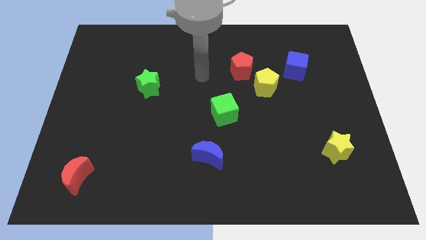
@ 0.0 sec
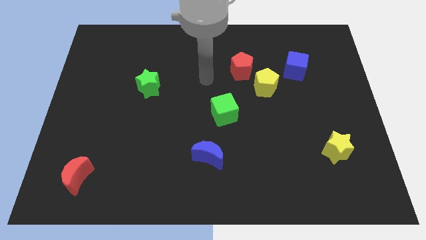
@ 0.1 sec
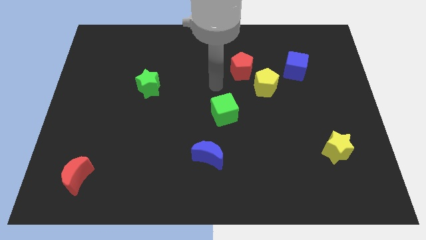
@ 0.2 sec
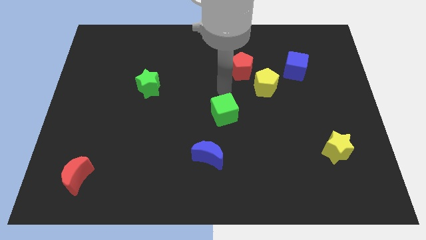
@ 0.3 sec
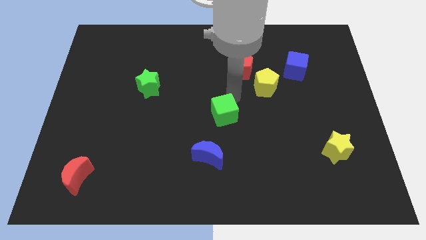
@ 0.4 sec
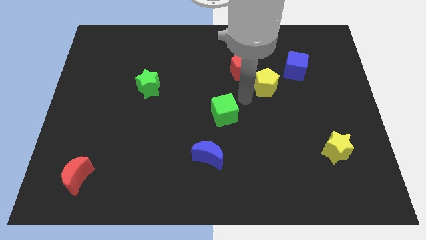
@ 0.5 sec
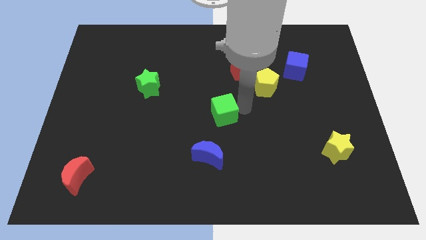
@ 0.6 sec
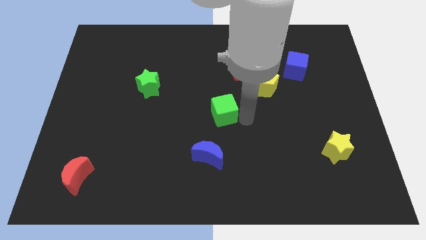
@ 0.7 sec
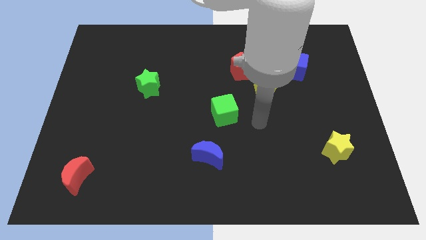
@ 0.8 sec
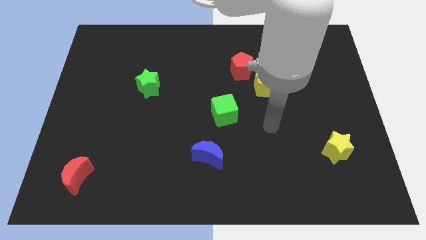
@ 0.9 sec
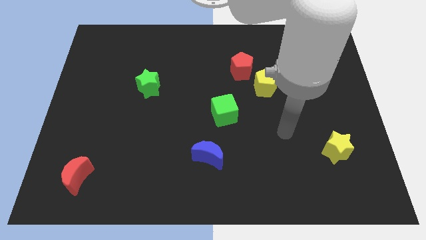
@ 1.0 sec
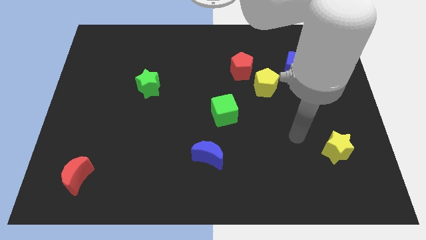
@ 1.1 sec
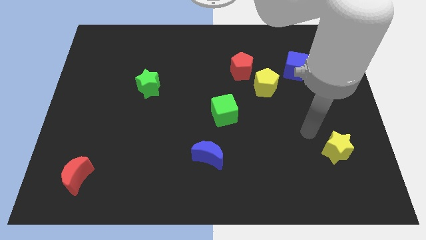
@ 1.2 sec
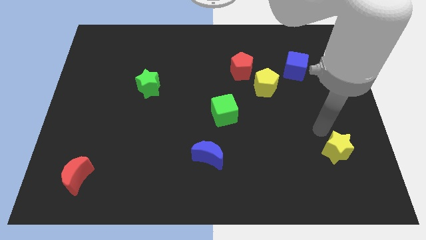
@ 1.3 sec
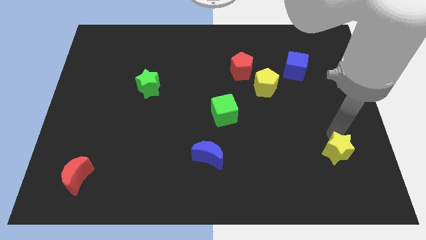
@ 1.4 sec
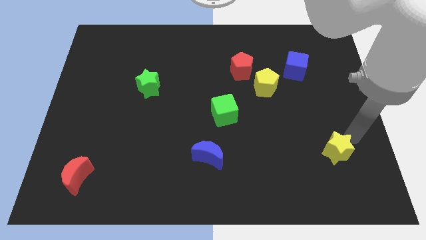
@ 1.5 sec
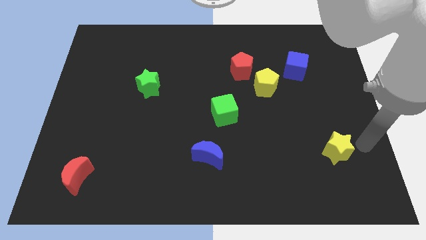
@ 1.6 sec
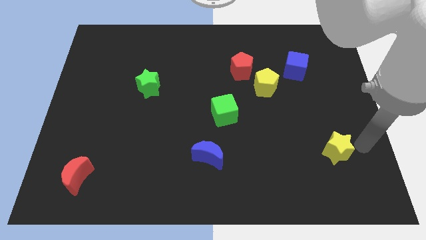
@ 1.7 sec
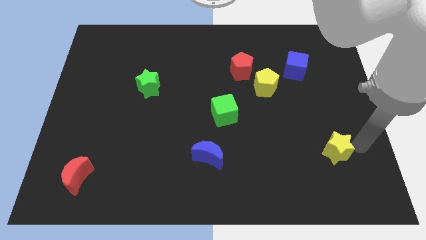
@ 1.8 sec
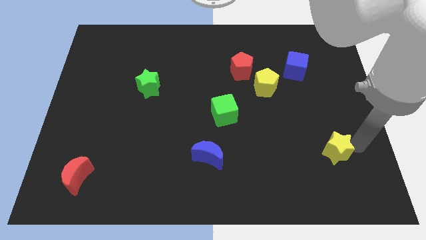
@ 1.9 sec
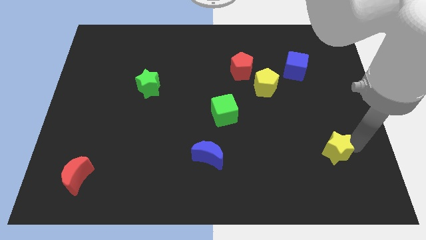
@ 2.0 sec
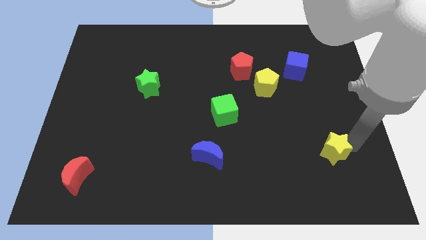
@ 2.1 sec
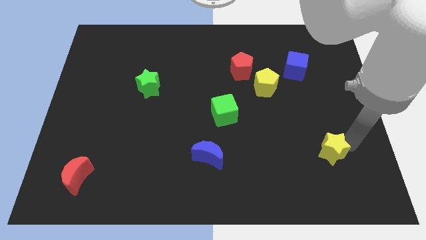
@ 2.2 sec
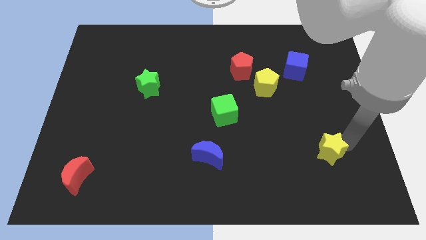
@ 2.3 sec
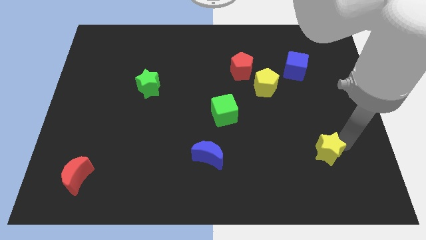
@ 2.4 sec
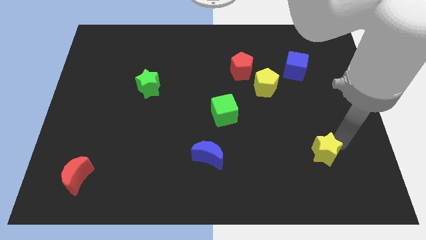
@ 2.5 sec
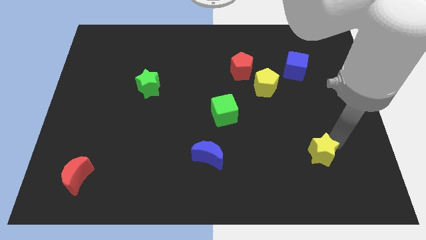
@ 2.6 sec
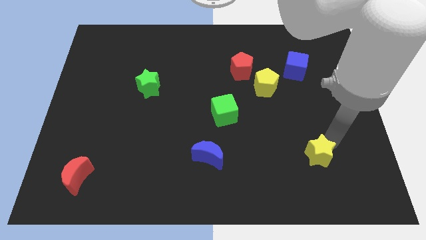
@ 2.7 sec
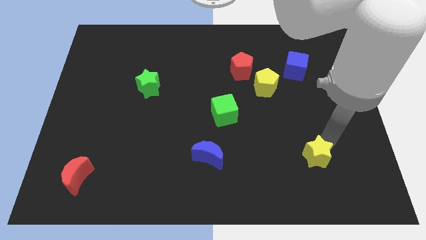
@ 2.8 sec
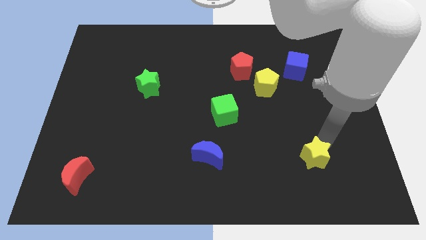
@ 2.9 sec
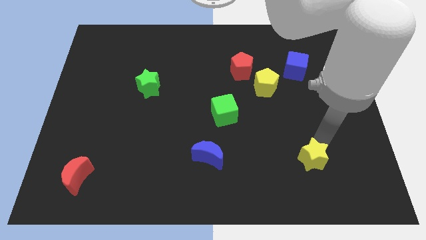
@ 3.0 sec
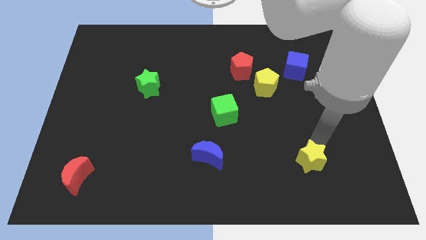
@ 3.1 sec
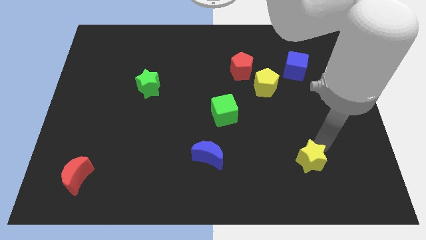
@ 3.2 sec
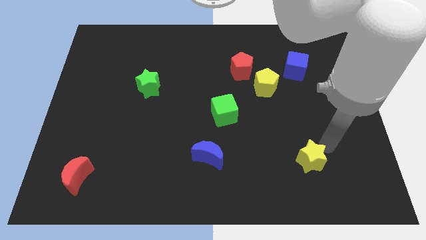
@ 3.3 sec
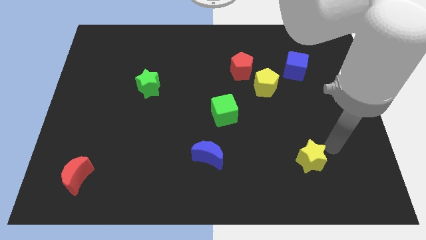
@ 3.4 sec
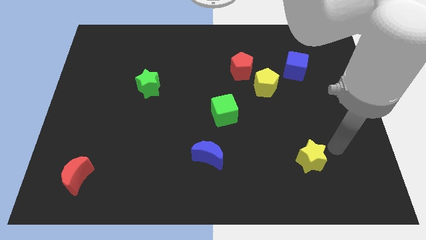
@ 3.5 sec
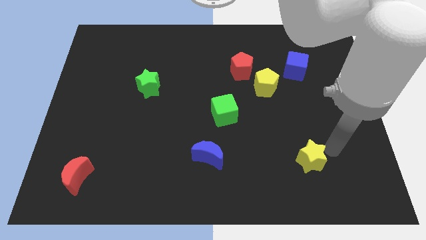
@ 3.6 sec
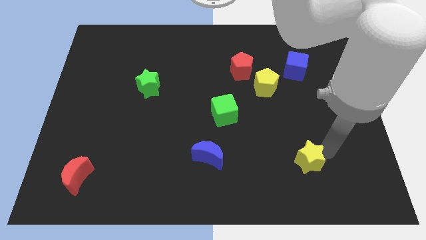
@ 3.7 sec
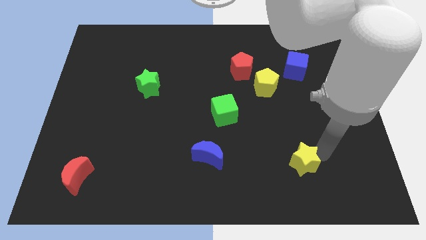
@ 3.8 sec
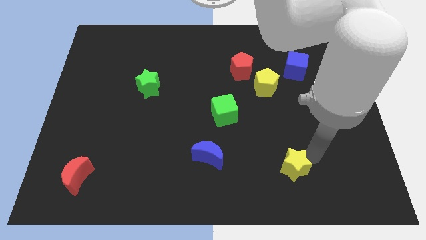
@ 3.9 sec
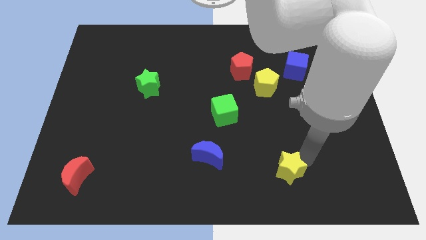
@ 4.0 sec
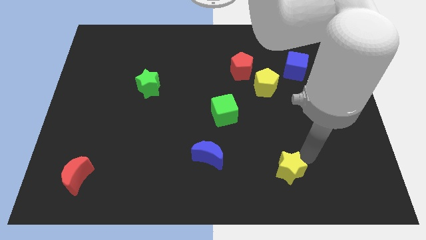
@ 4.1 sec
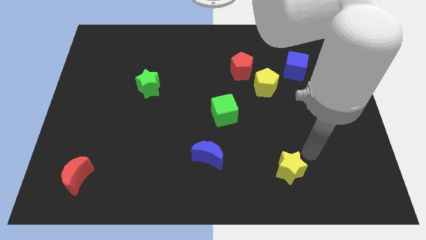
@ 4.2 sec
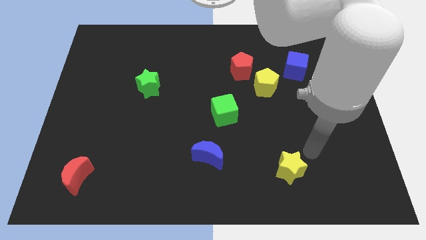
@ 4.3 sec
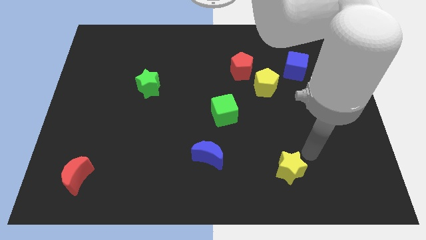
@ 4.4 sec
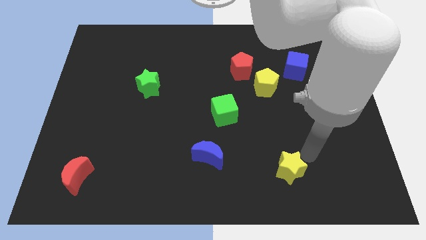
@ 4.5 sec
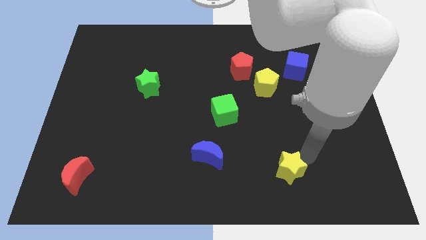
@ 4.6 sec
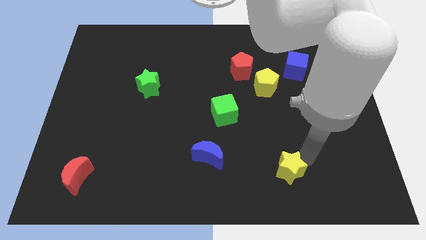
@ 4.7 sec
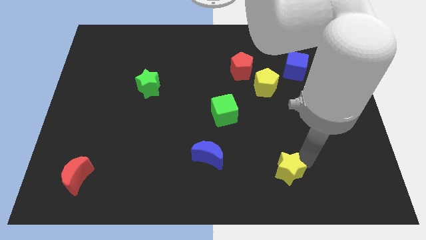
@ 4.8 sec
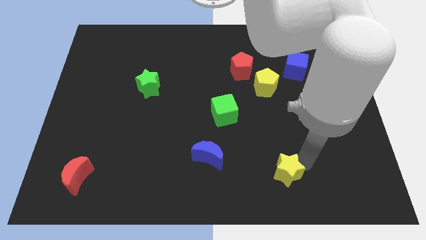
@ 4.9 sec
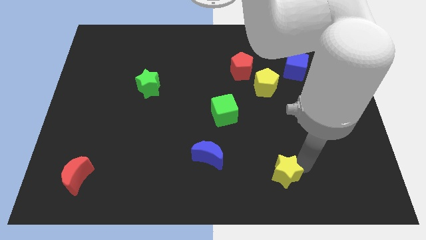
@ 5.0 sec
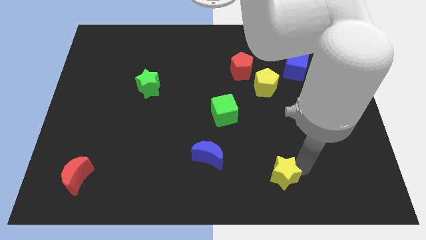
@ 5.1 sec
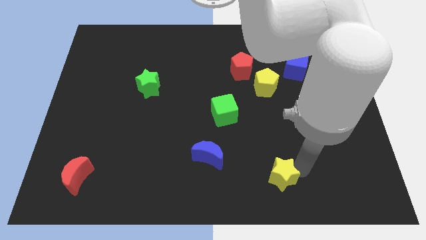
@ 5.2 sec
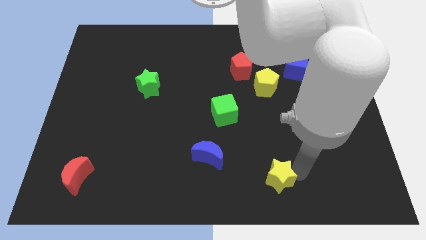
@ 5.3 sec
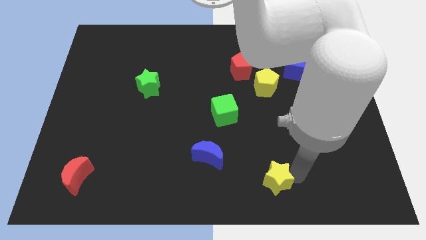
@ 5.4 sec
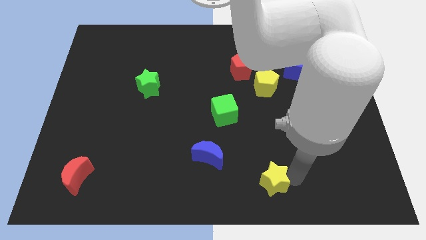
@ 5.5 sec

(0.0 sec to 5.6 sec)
slide the yellow star to the bottom
